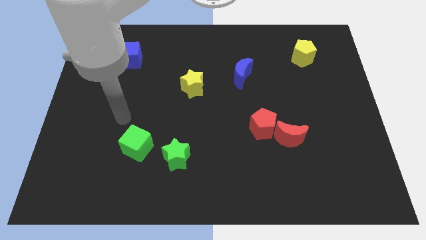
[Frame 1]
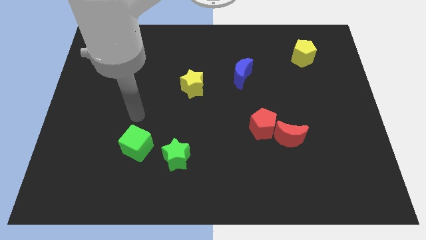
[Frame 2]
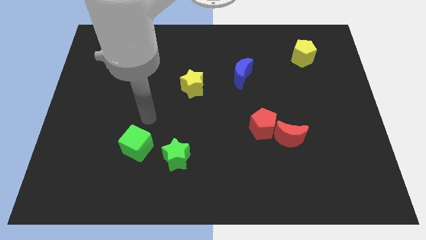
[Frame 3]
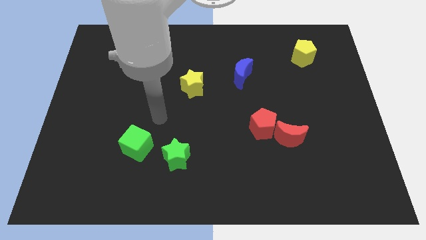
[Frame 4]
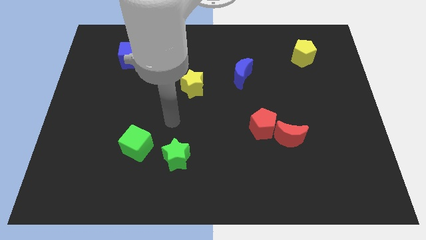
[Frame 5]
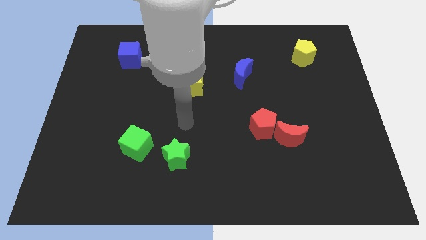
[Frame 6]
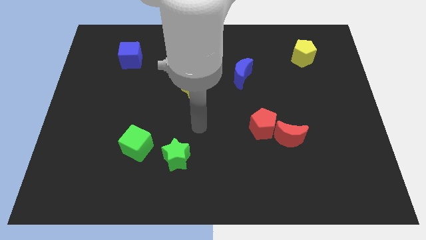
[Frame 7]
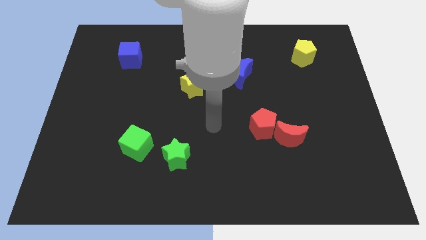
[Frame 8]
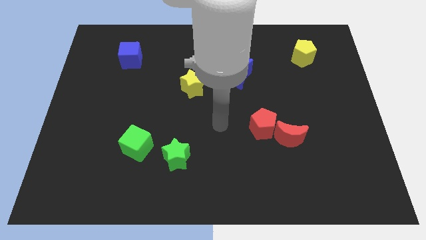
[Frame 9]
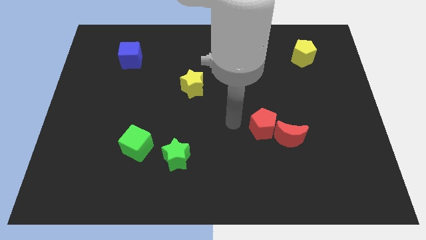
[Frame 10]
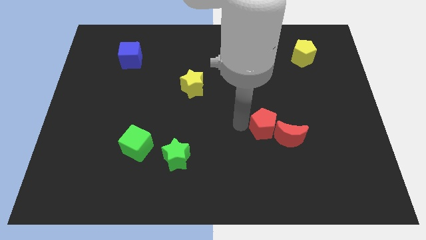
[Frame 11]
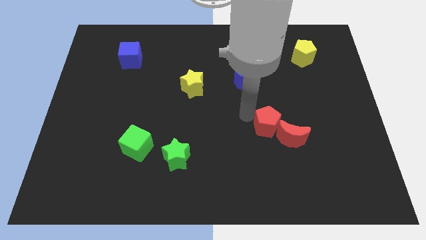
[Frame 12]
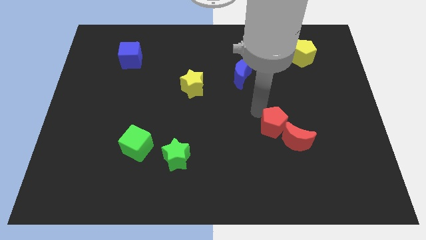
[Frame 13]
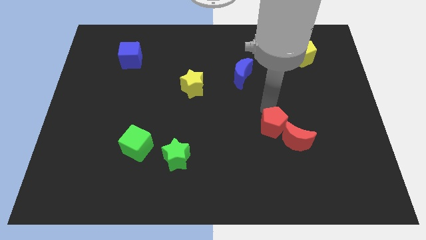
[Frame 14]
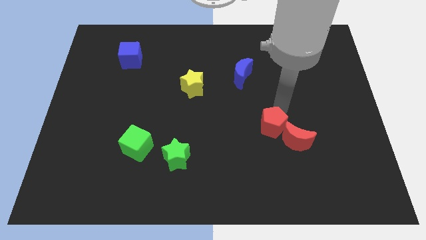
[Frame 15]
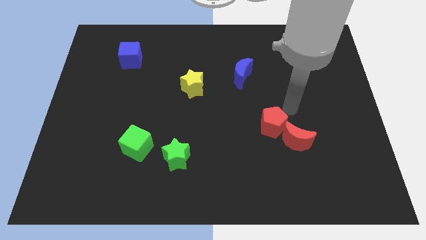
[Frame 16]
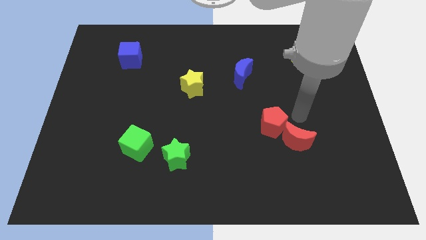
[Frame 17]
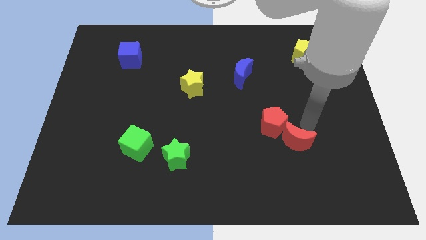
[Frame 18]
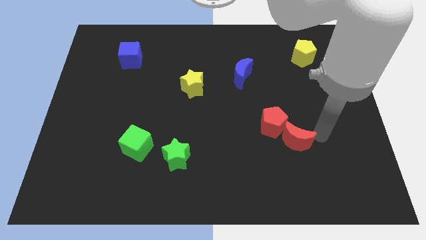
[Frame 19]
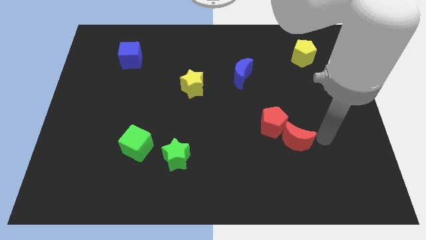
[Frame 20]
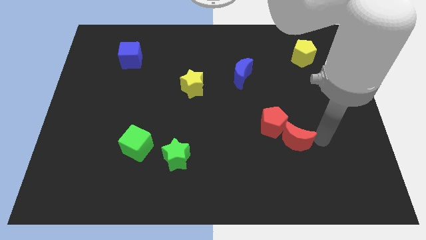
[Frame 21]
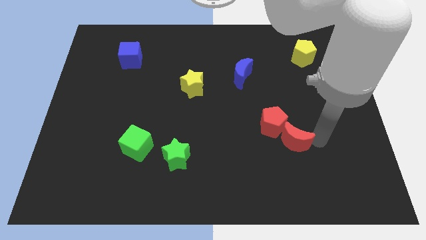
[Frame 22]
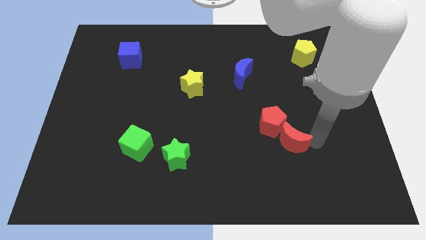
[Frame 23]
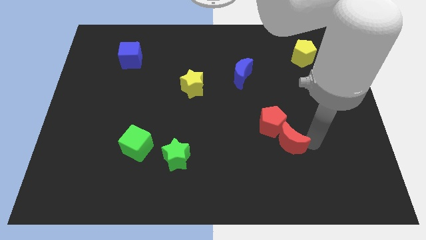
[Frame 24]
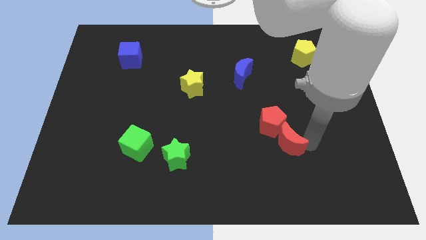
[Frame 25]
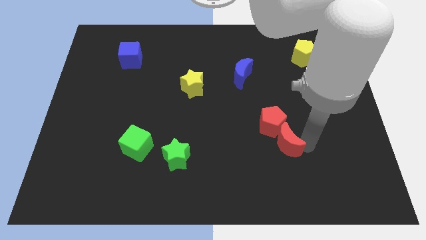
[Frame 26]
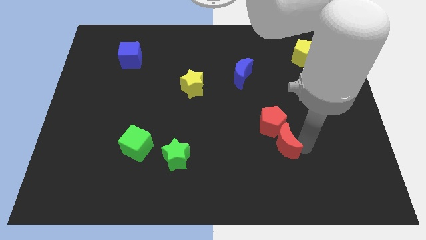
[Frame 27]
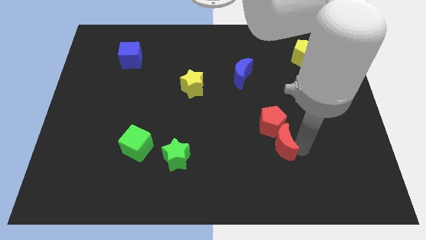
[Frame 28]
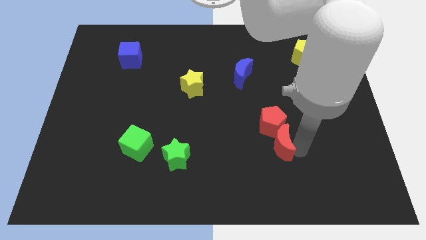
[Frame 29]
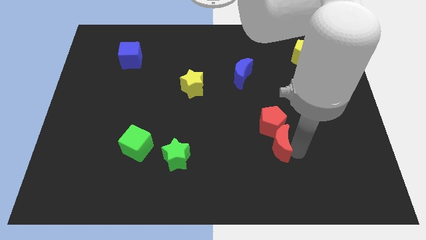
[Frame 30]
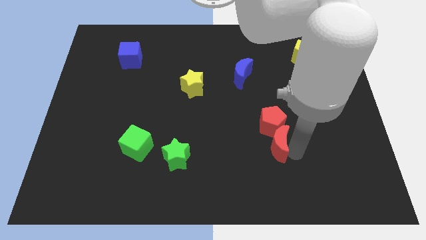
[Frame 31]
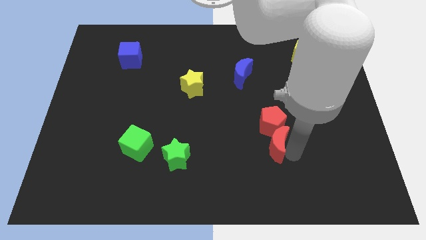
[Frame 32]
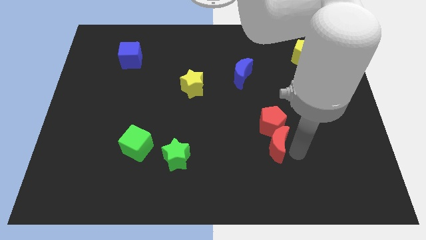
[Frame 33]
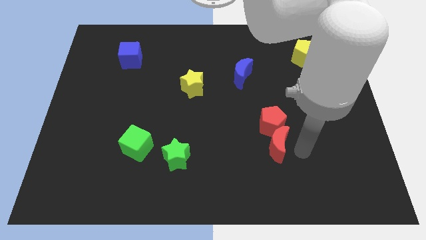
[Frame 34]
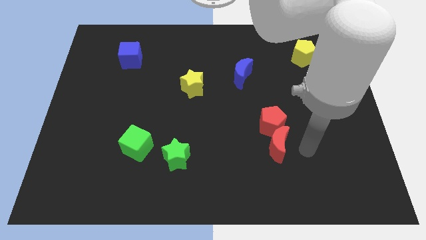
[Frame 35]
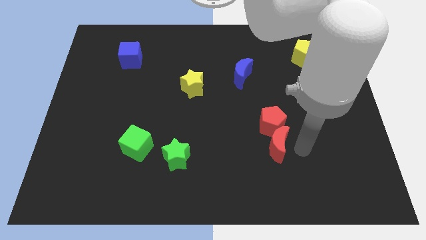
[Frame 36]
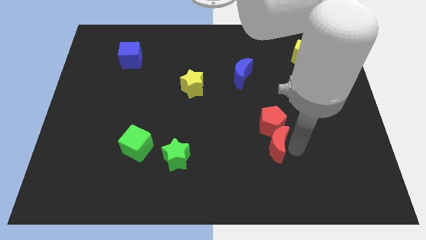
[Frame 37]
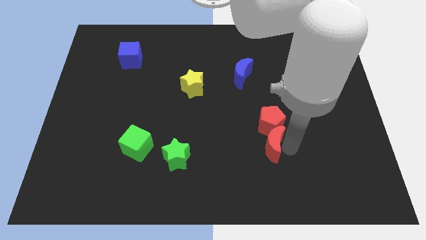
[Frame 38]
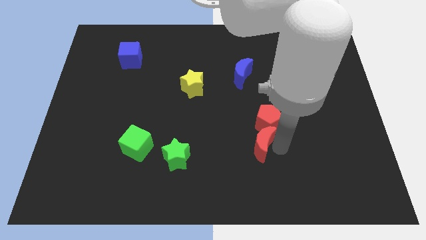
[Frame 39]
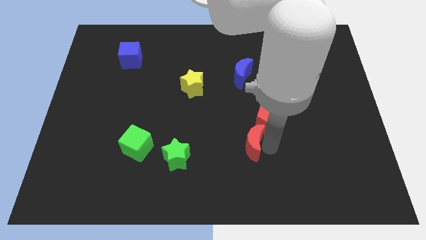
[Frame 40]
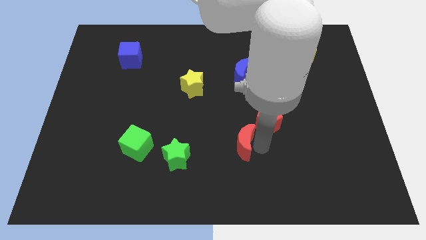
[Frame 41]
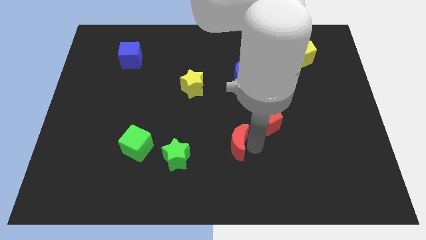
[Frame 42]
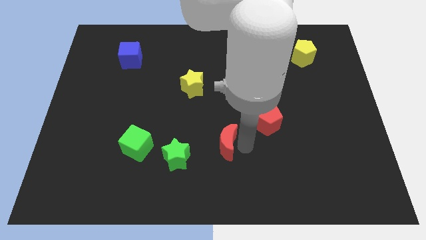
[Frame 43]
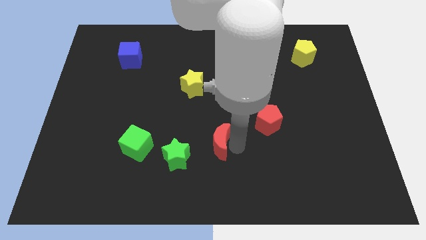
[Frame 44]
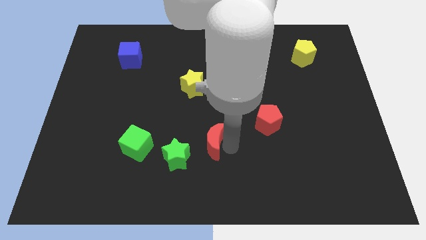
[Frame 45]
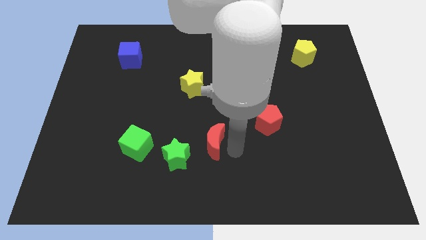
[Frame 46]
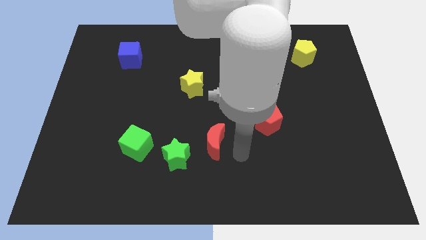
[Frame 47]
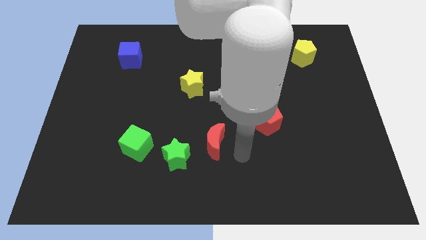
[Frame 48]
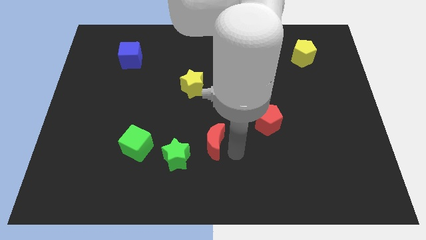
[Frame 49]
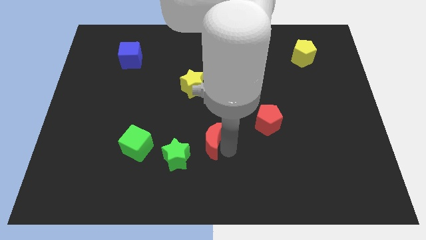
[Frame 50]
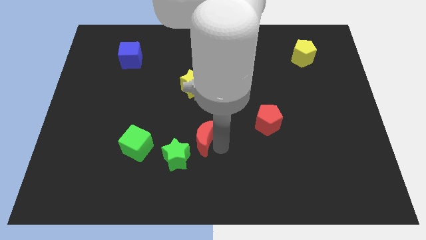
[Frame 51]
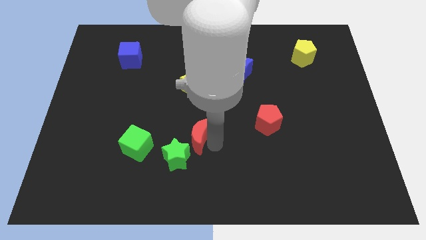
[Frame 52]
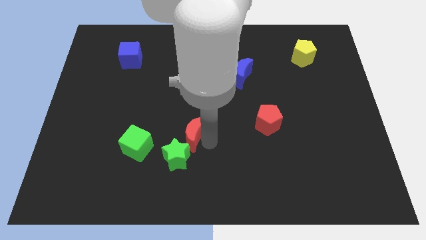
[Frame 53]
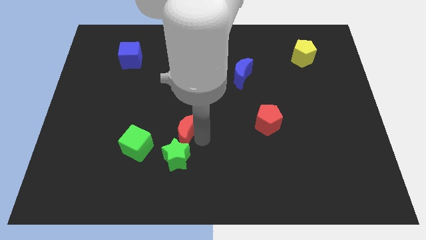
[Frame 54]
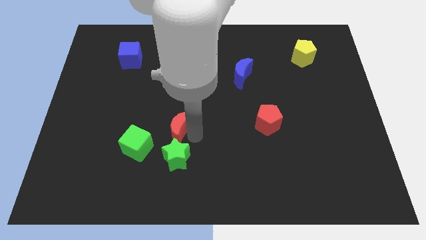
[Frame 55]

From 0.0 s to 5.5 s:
move the red moon to the top right of the green cube

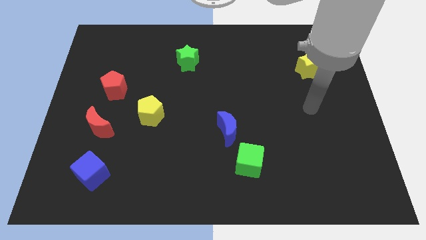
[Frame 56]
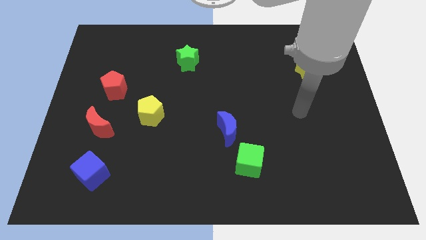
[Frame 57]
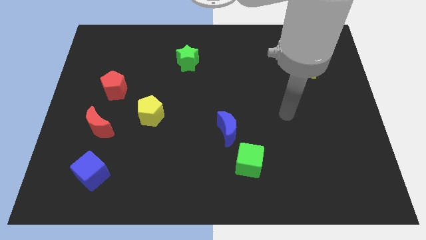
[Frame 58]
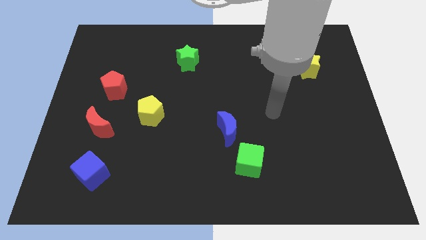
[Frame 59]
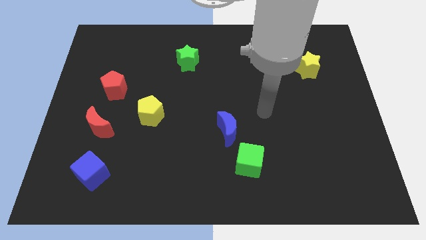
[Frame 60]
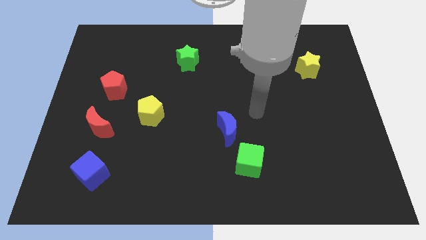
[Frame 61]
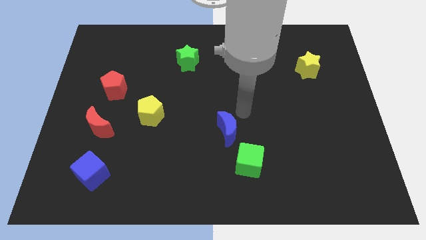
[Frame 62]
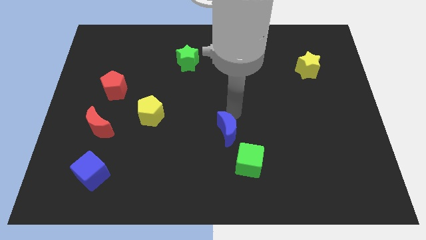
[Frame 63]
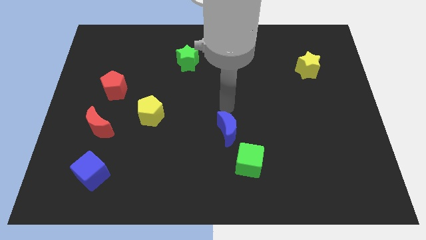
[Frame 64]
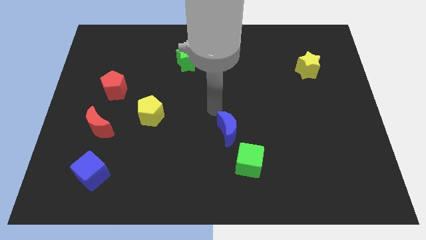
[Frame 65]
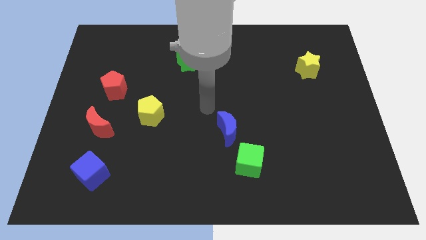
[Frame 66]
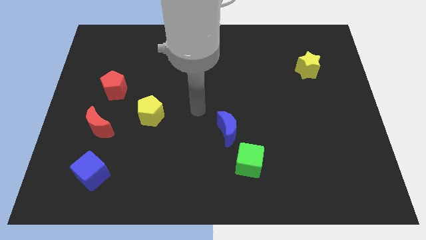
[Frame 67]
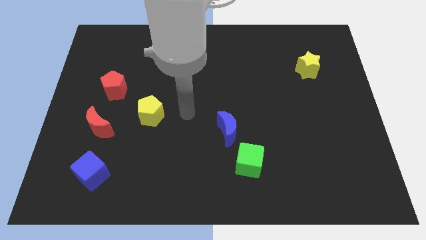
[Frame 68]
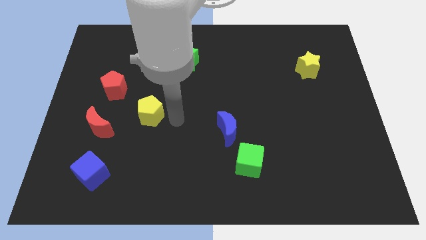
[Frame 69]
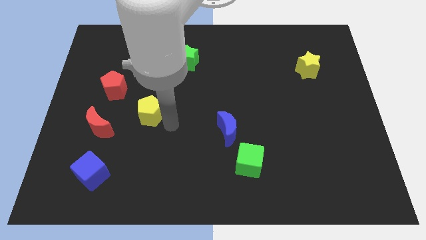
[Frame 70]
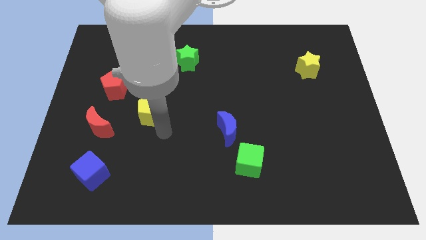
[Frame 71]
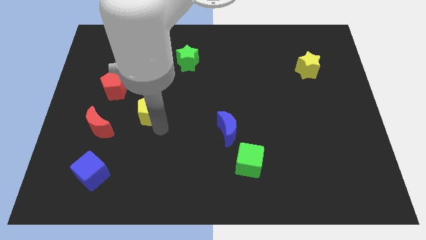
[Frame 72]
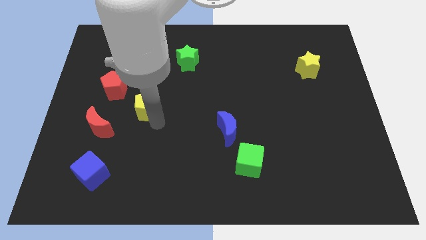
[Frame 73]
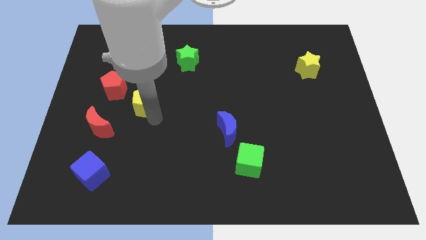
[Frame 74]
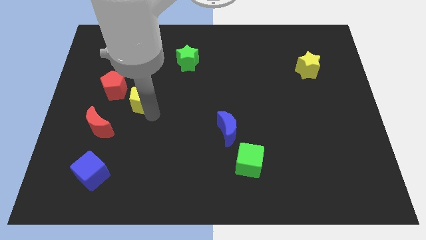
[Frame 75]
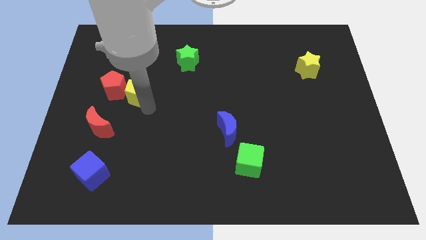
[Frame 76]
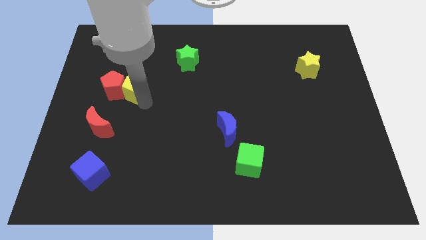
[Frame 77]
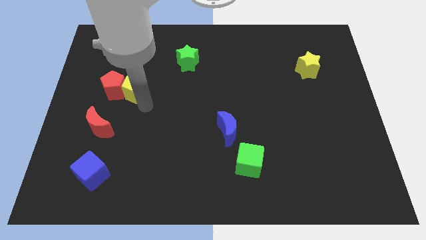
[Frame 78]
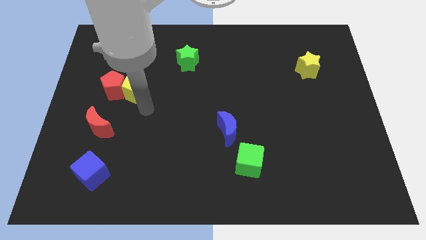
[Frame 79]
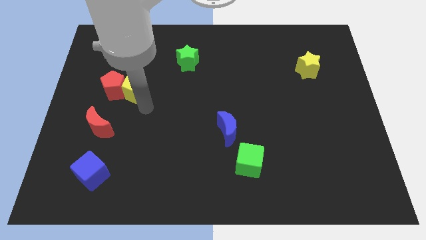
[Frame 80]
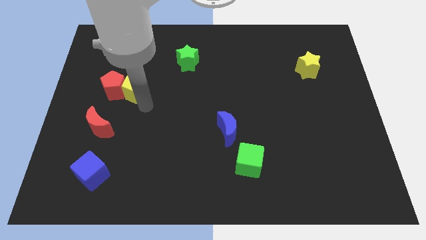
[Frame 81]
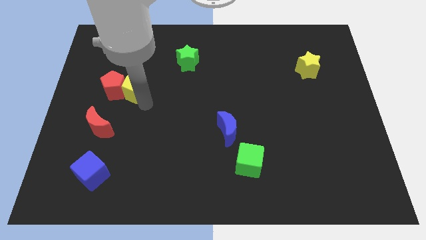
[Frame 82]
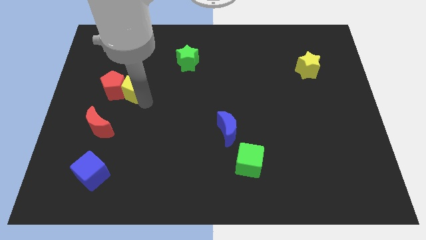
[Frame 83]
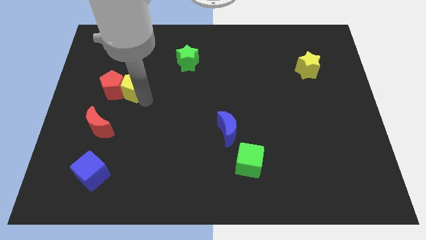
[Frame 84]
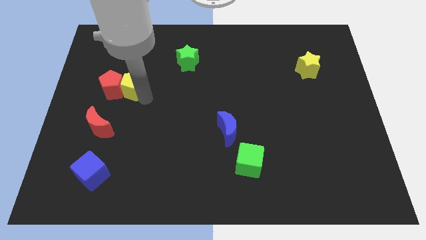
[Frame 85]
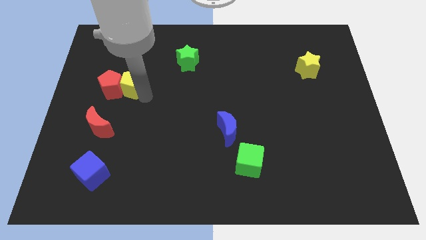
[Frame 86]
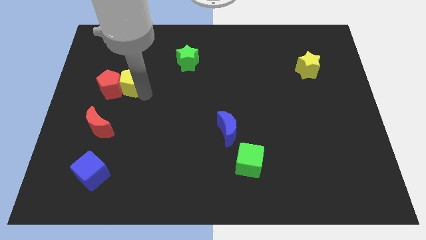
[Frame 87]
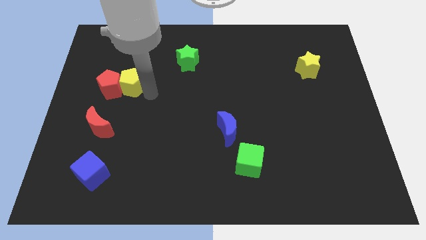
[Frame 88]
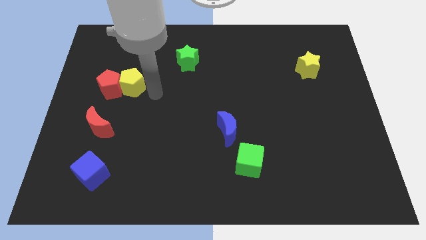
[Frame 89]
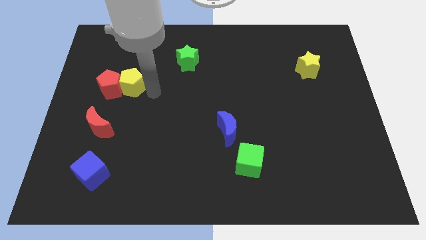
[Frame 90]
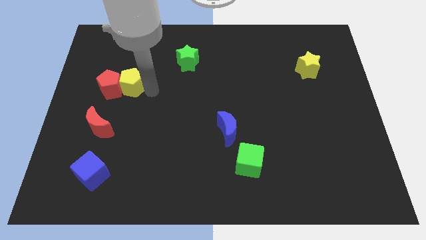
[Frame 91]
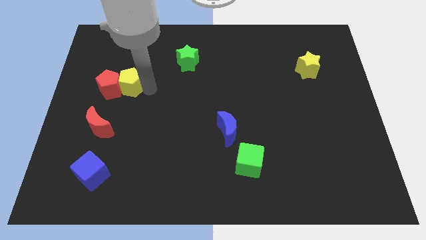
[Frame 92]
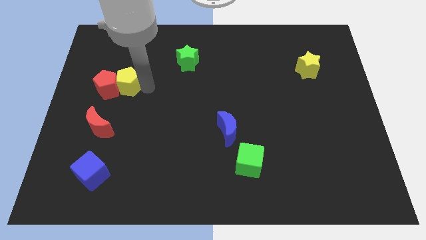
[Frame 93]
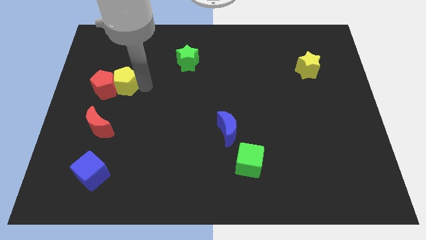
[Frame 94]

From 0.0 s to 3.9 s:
put the yellow pentagon to the top side of the red moon
